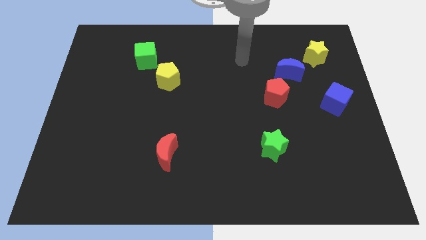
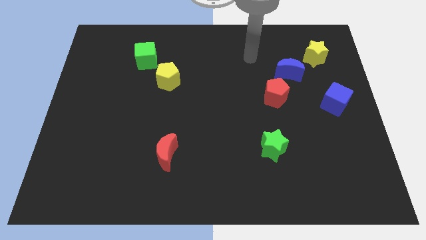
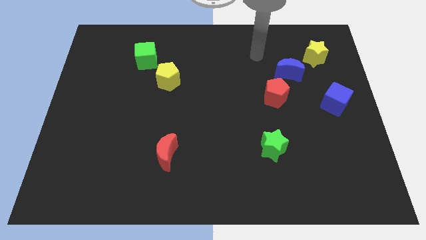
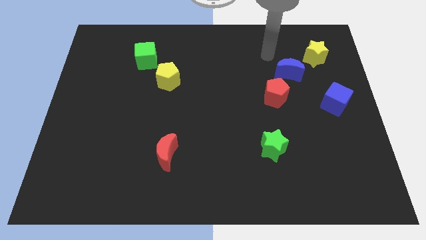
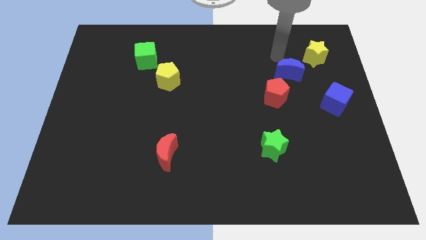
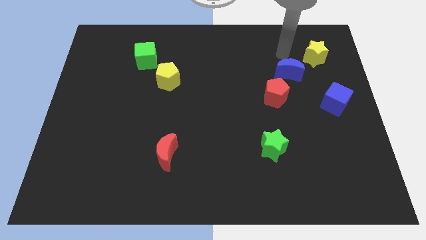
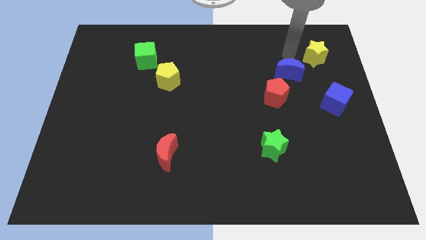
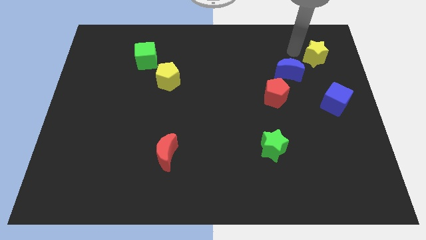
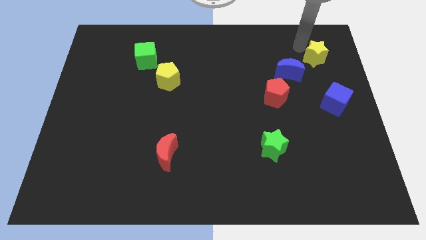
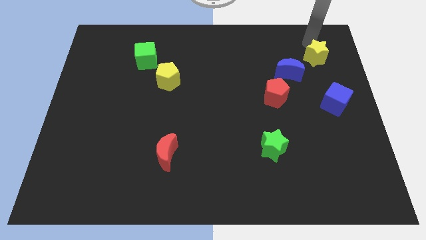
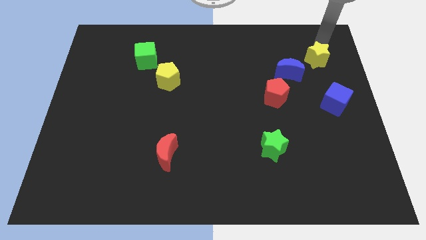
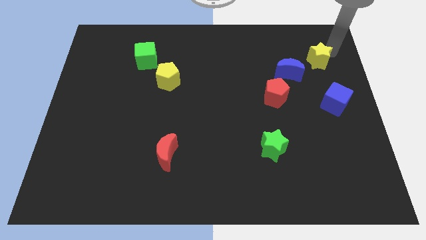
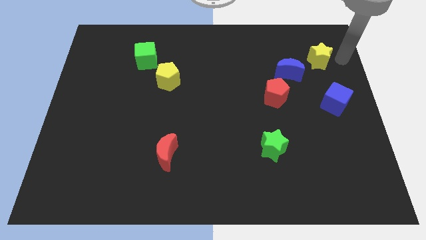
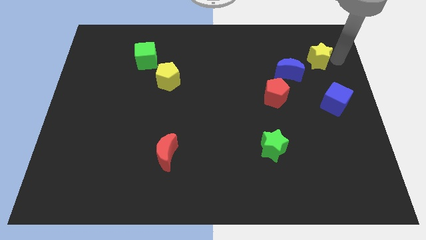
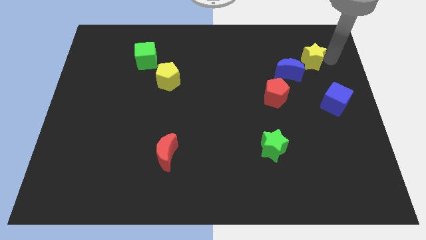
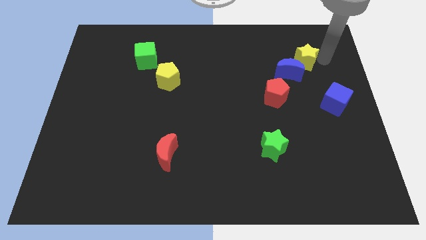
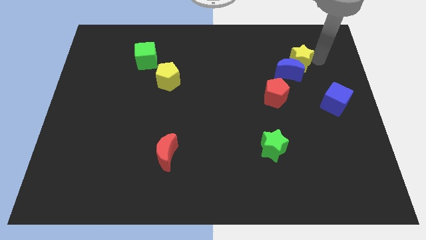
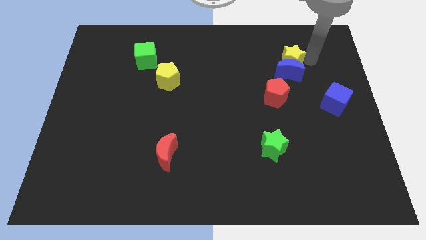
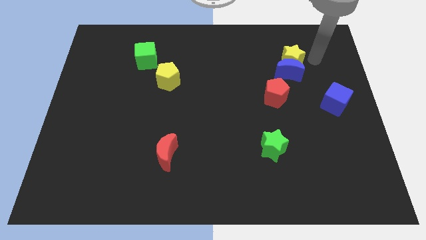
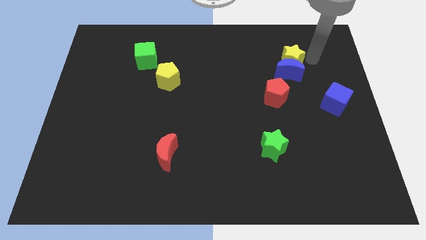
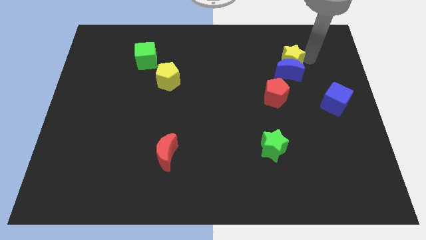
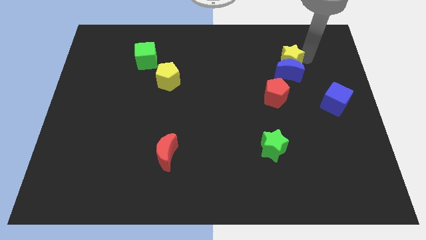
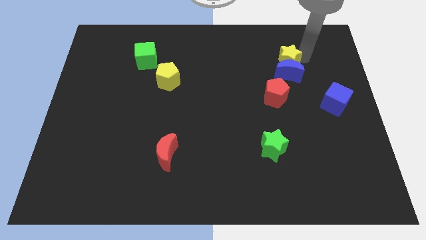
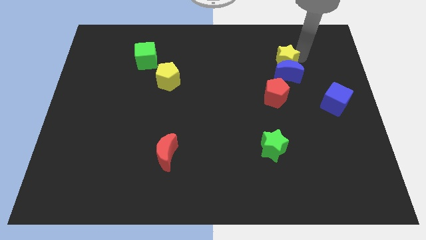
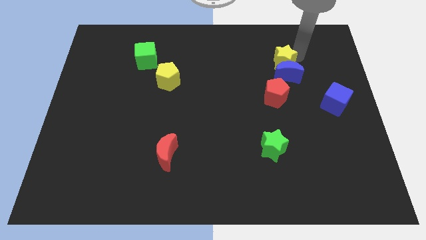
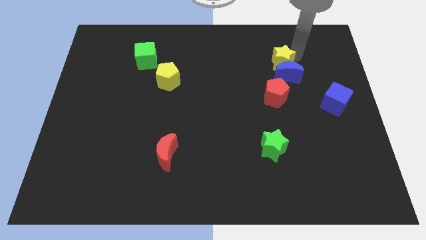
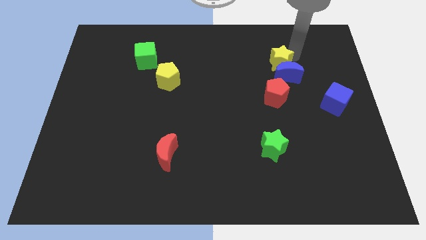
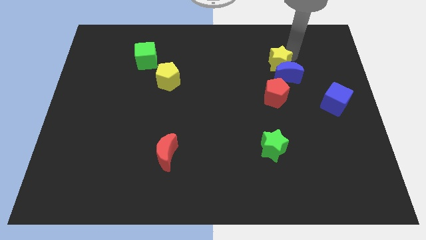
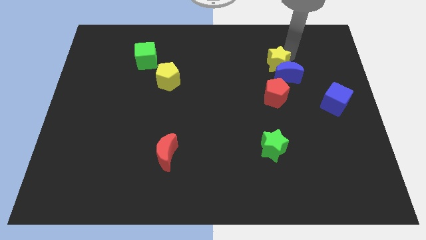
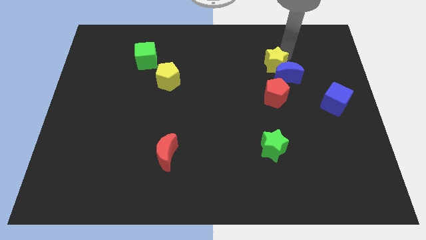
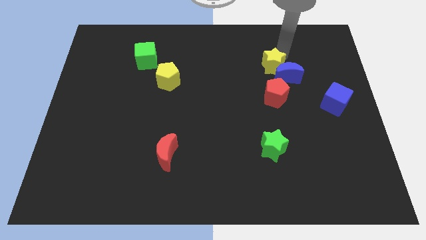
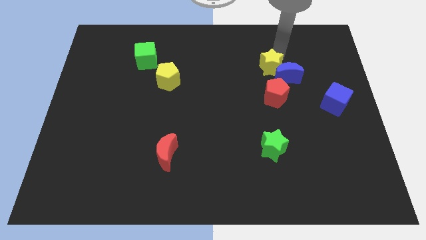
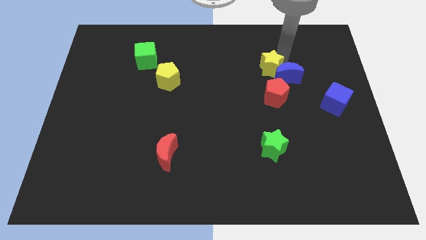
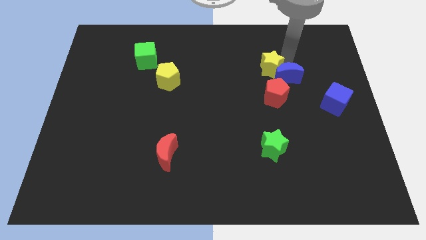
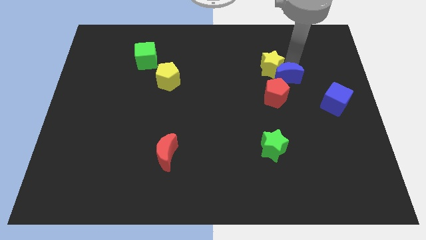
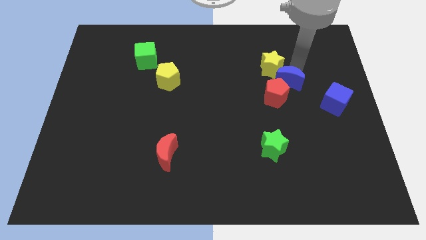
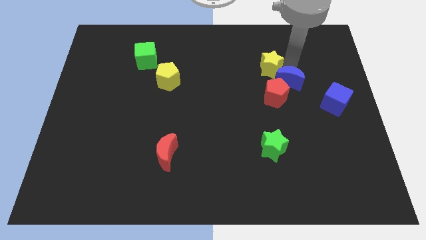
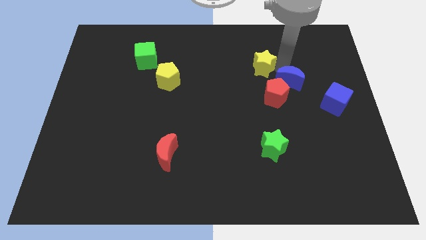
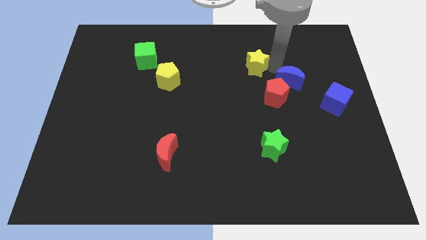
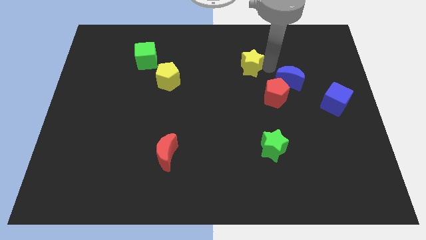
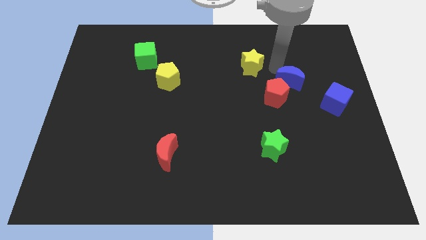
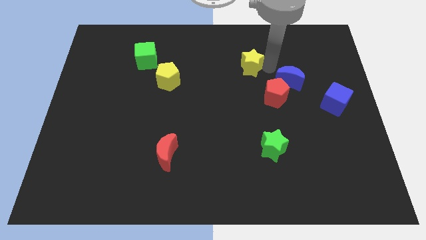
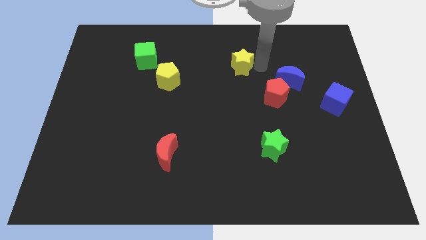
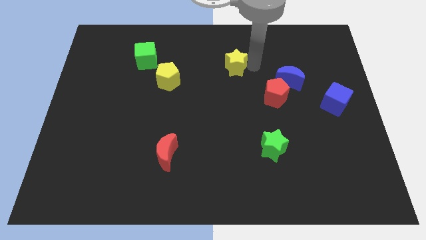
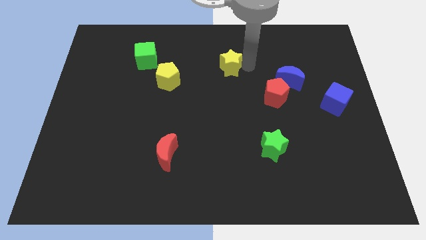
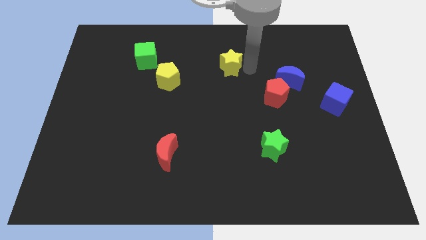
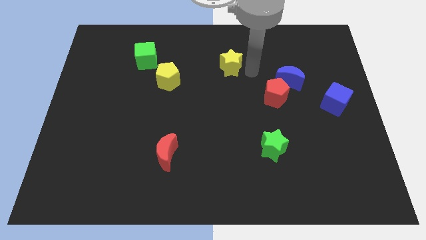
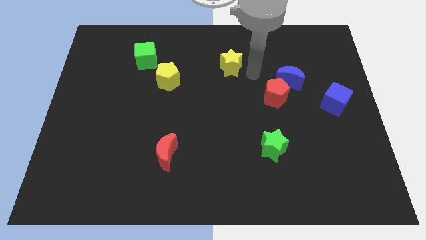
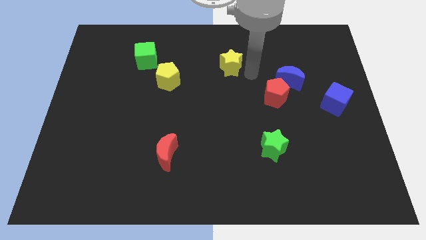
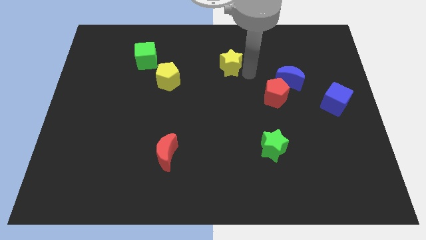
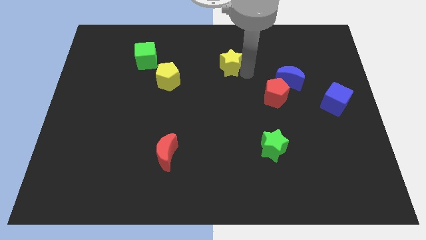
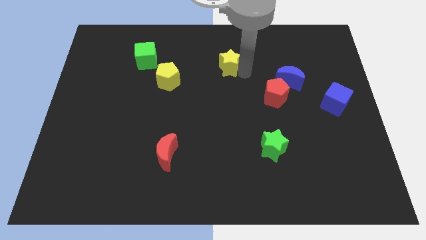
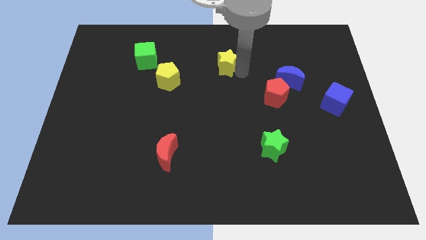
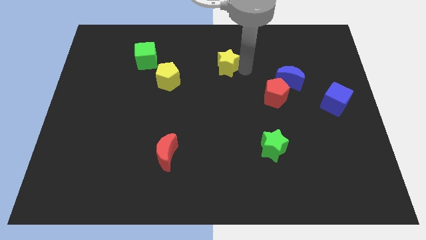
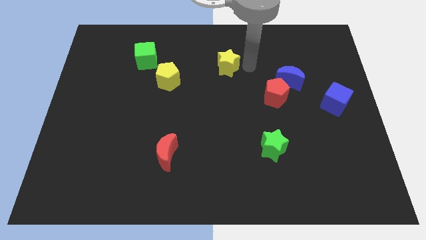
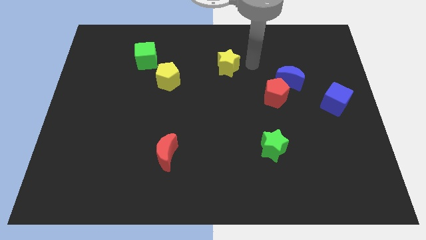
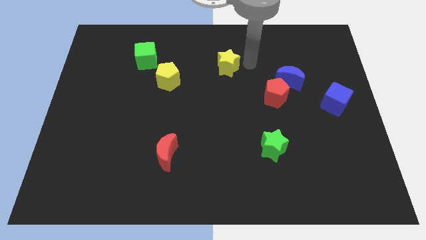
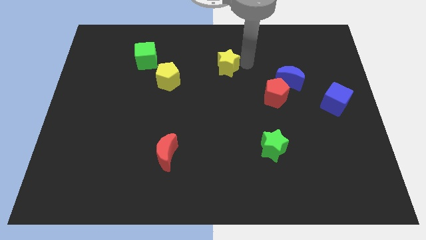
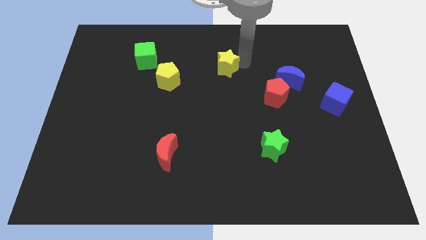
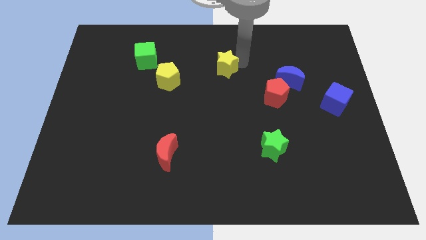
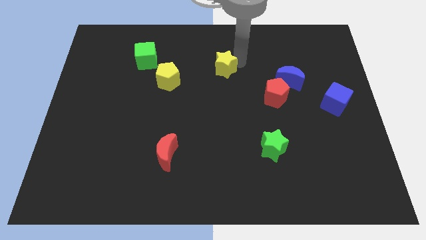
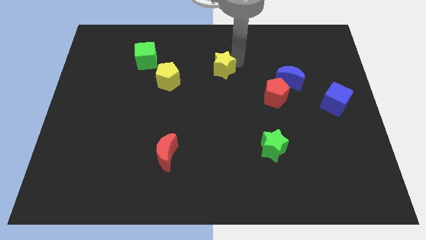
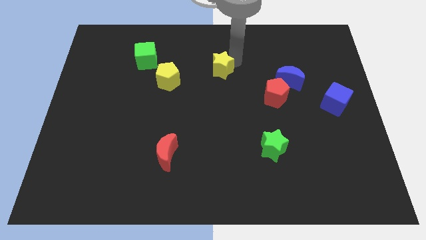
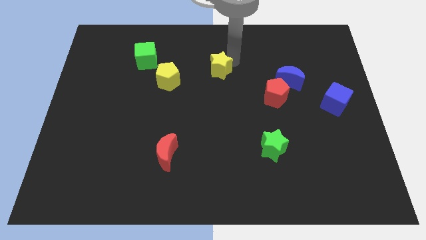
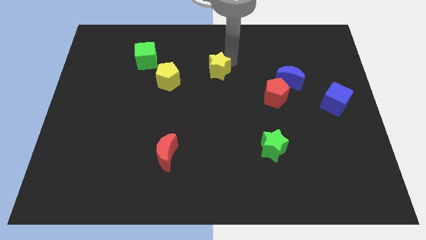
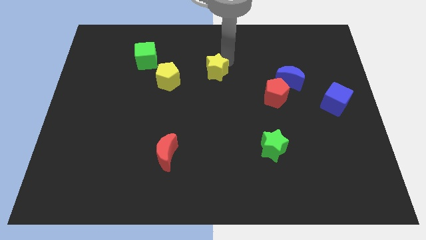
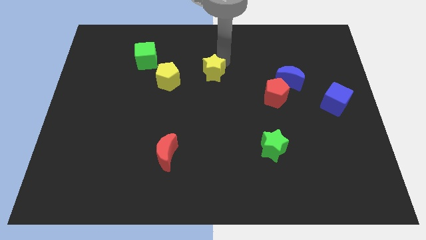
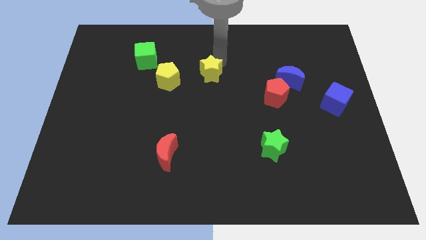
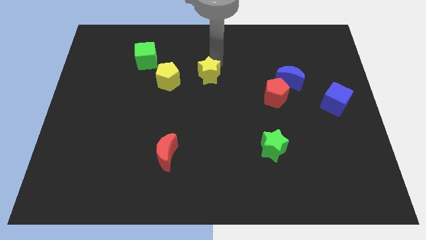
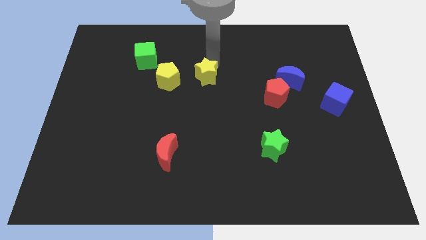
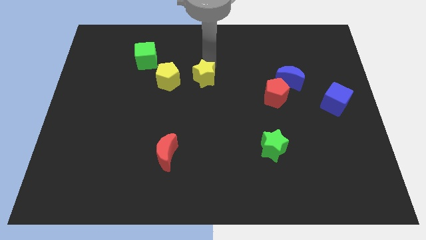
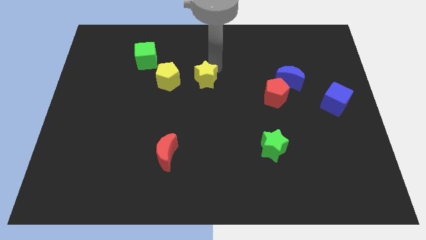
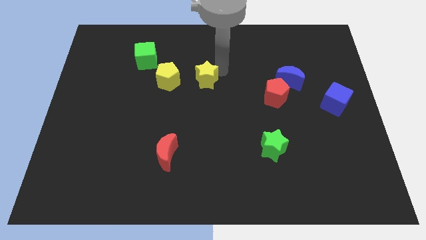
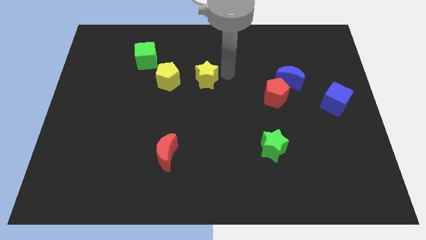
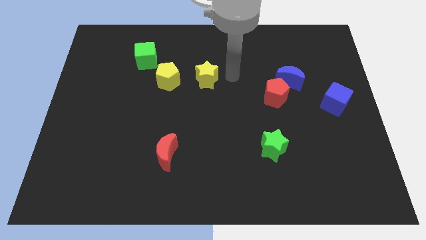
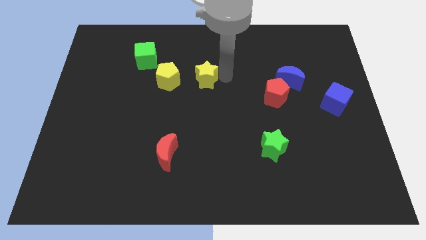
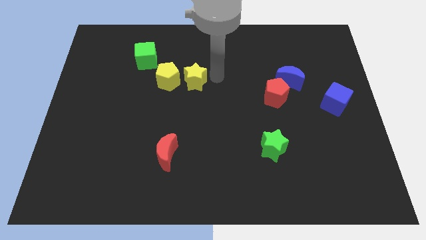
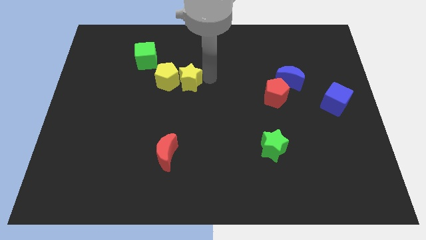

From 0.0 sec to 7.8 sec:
put the yellow star towards the yellow pentagon
